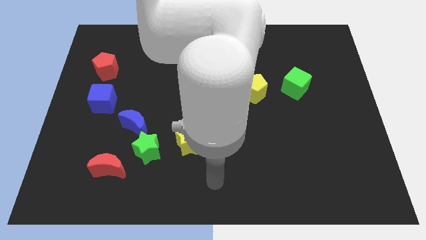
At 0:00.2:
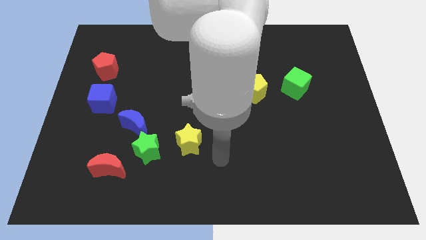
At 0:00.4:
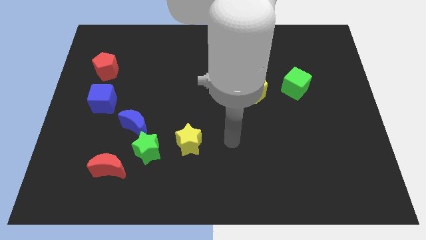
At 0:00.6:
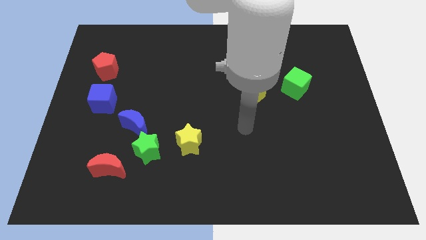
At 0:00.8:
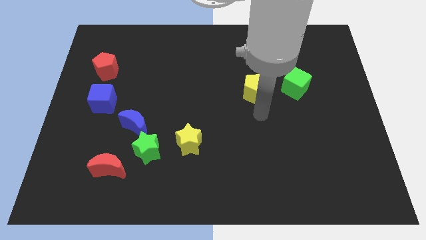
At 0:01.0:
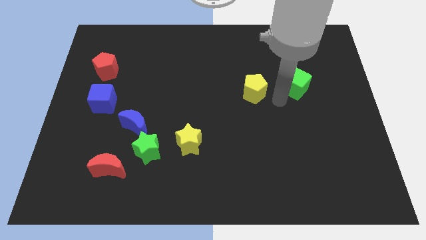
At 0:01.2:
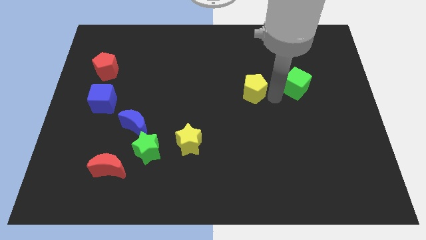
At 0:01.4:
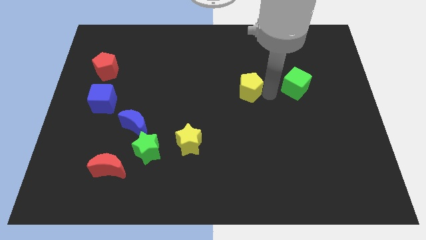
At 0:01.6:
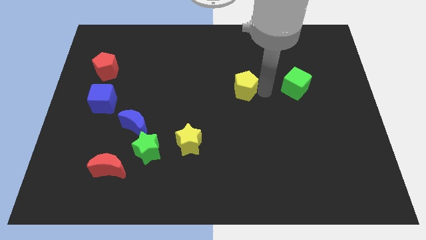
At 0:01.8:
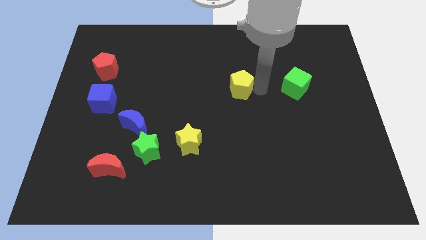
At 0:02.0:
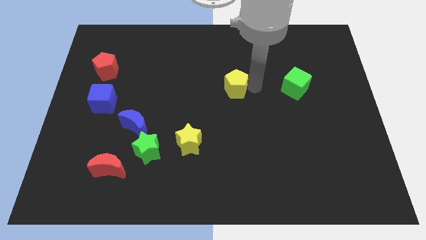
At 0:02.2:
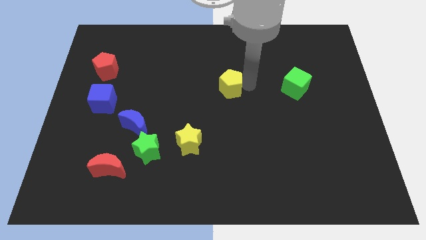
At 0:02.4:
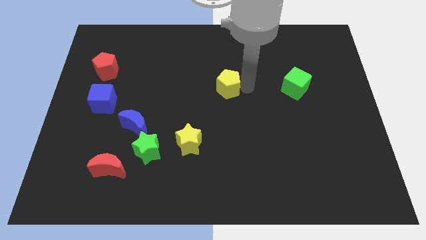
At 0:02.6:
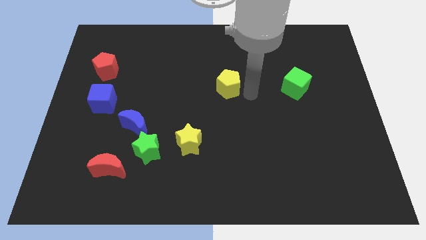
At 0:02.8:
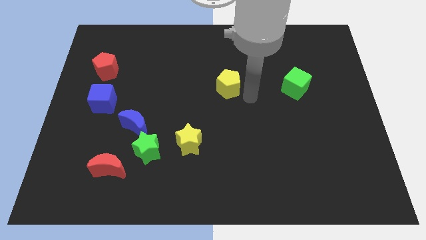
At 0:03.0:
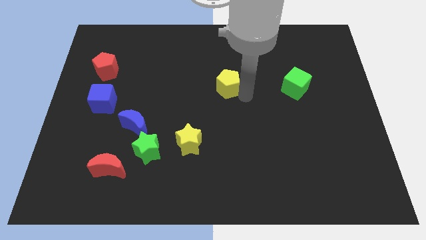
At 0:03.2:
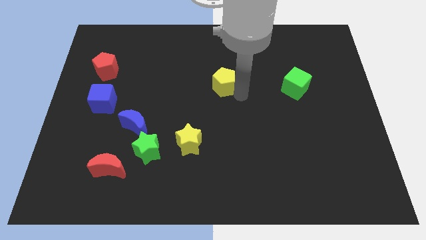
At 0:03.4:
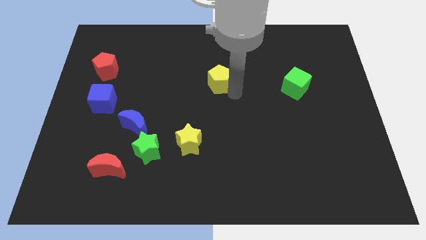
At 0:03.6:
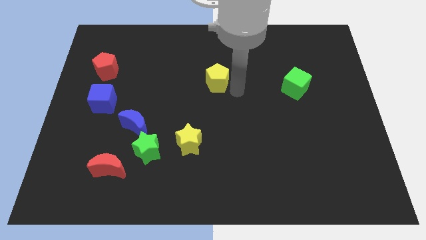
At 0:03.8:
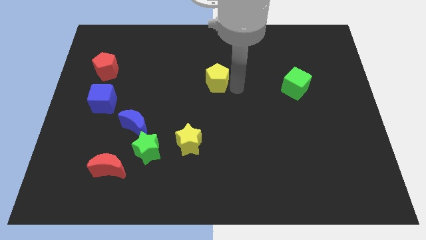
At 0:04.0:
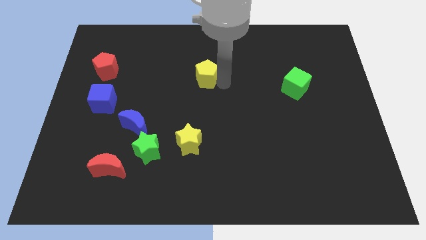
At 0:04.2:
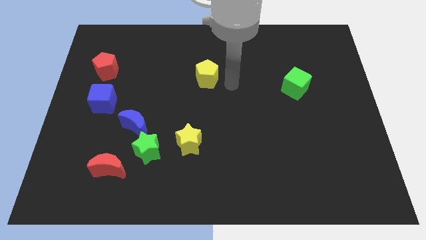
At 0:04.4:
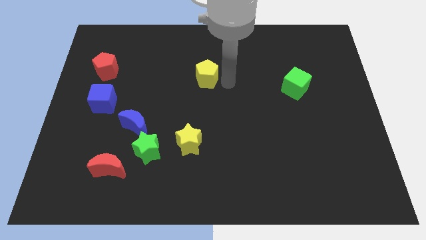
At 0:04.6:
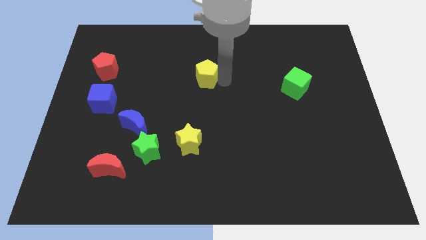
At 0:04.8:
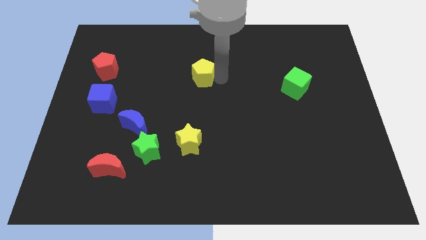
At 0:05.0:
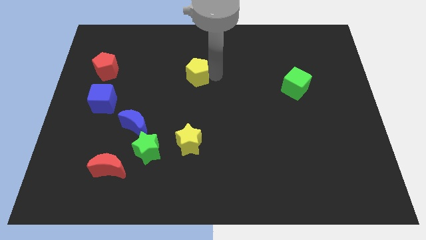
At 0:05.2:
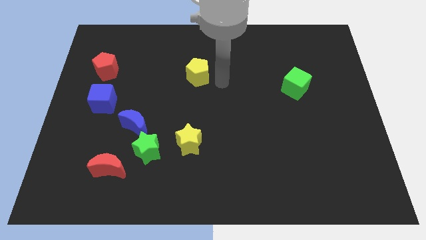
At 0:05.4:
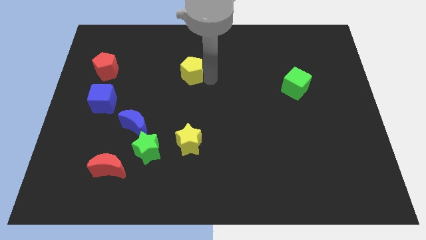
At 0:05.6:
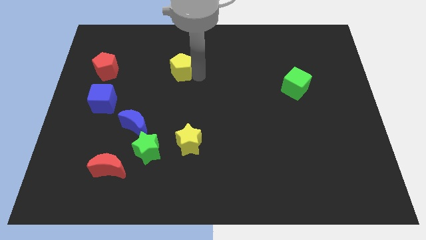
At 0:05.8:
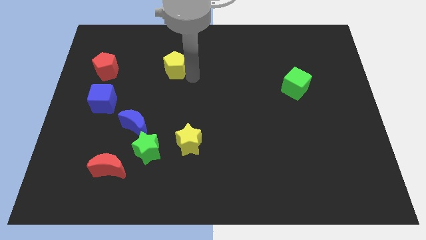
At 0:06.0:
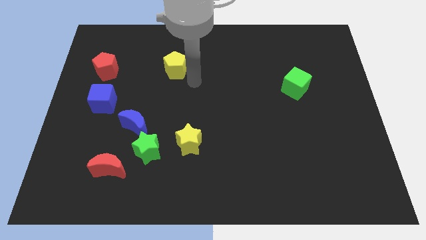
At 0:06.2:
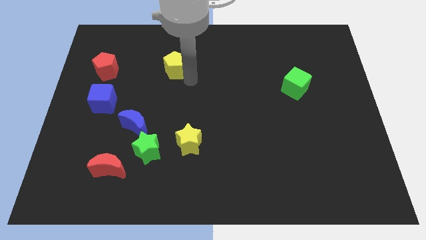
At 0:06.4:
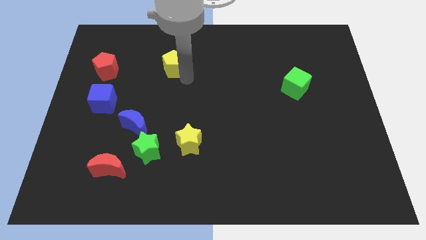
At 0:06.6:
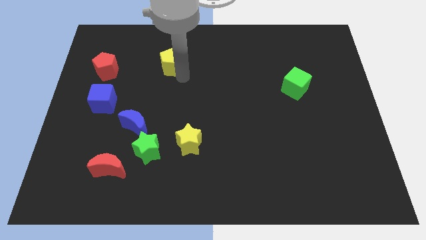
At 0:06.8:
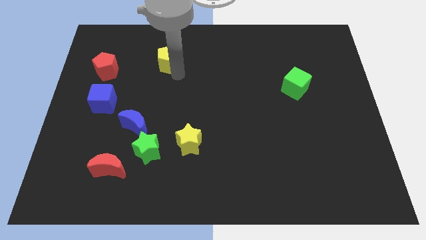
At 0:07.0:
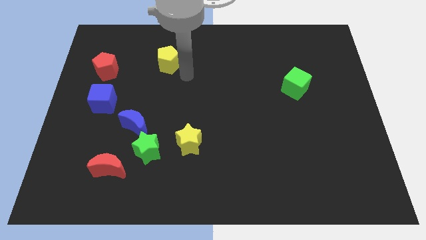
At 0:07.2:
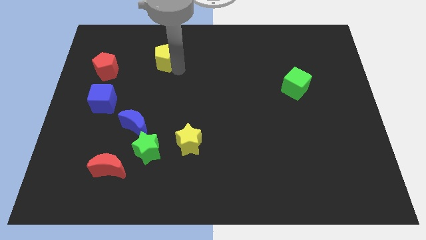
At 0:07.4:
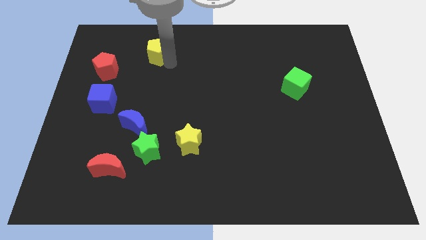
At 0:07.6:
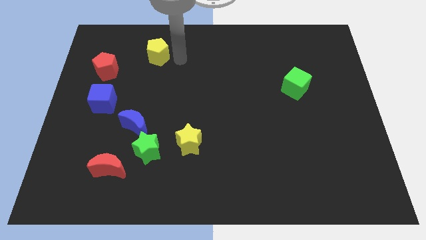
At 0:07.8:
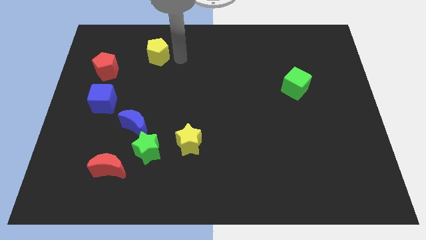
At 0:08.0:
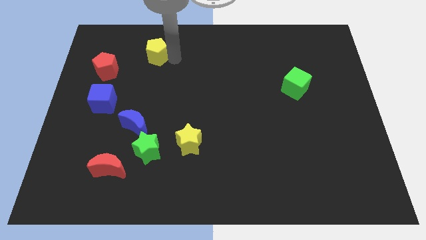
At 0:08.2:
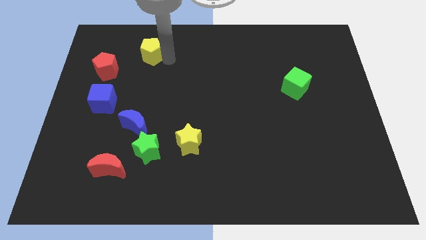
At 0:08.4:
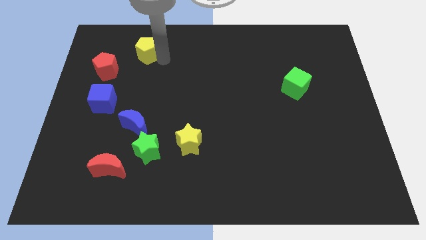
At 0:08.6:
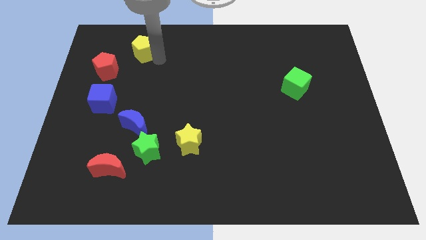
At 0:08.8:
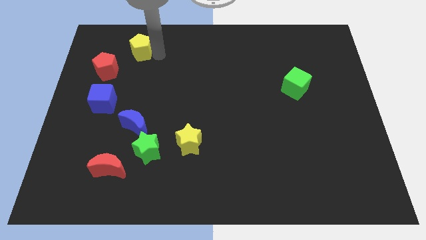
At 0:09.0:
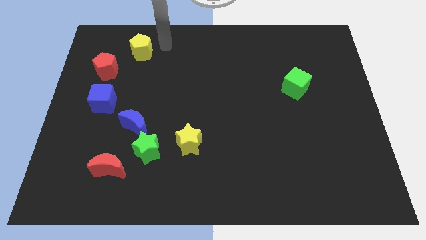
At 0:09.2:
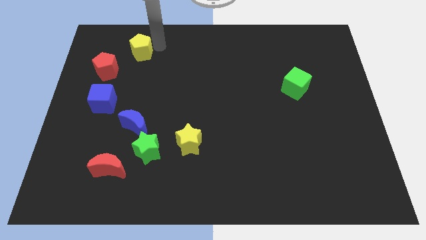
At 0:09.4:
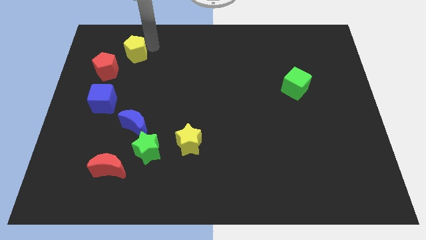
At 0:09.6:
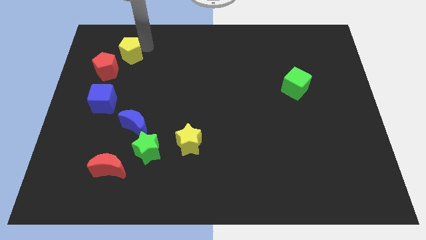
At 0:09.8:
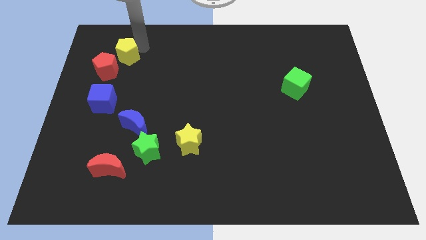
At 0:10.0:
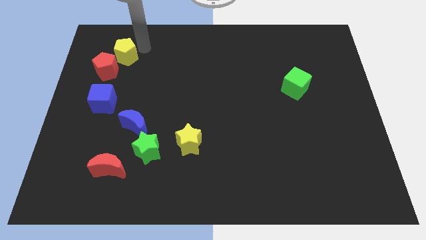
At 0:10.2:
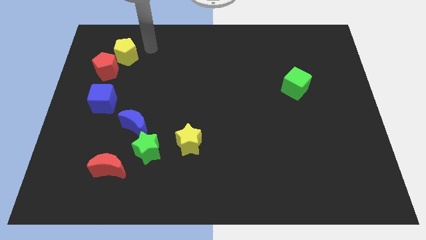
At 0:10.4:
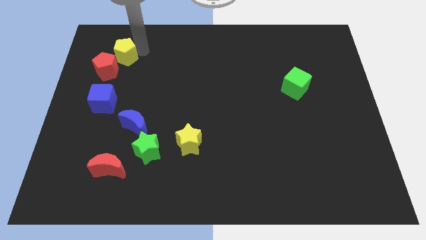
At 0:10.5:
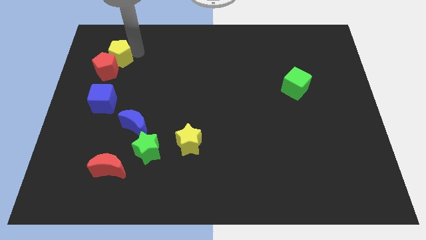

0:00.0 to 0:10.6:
put the yellow pentagon above the blue cube

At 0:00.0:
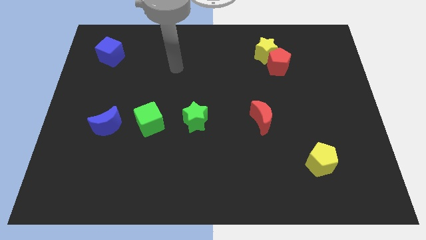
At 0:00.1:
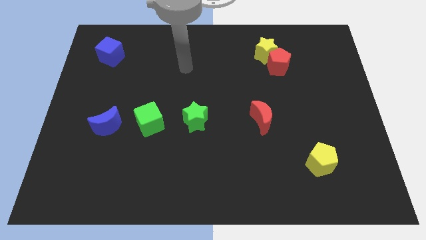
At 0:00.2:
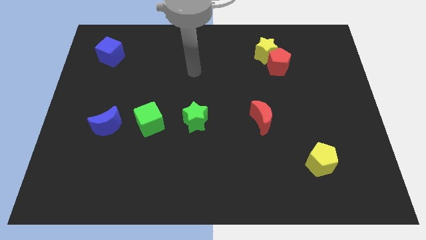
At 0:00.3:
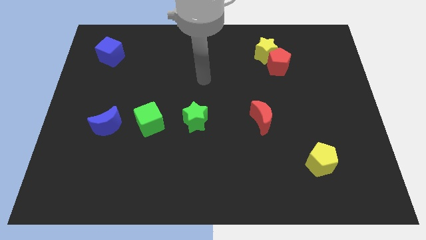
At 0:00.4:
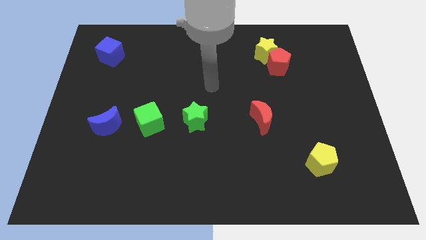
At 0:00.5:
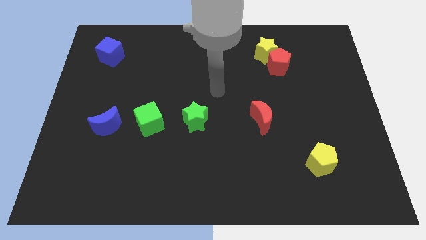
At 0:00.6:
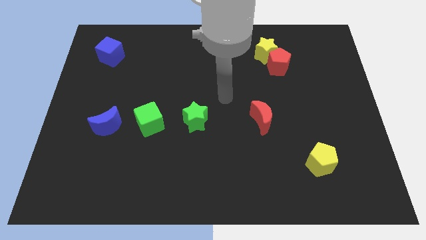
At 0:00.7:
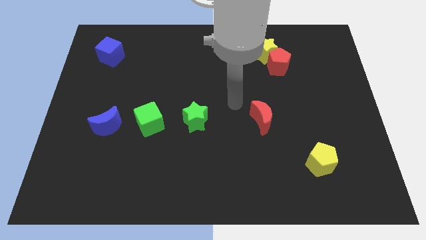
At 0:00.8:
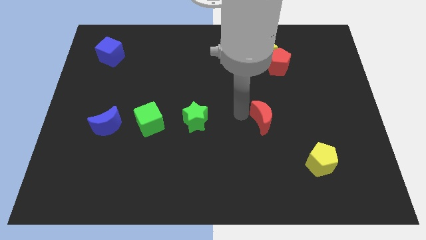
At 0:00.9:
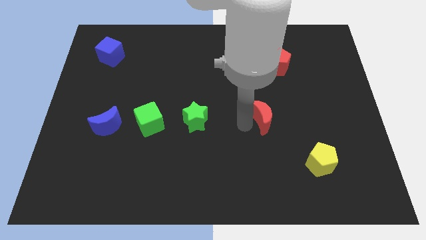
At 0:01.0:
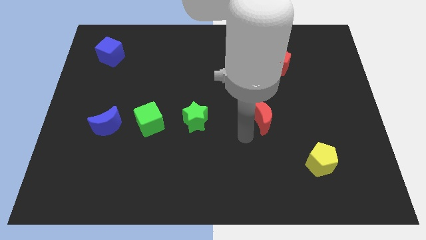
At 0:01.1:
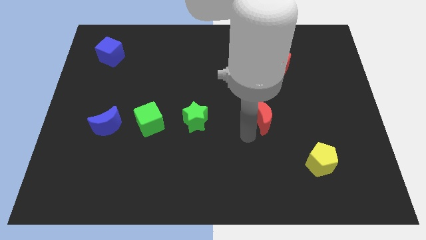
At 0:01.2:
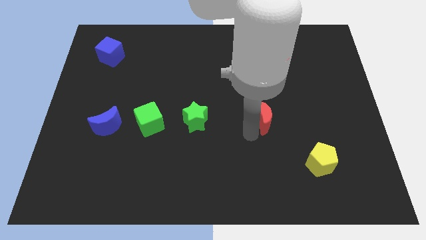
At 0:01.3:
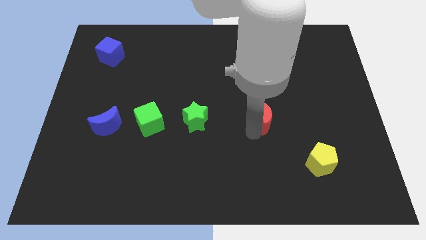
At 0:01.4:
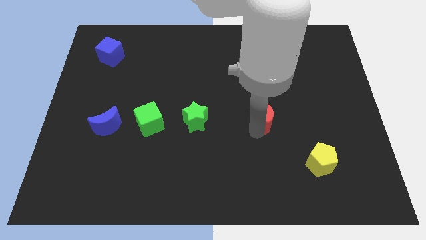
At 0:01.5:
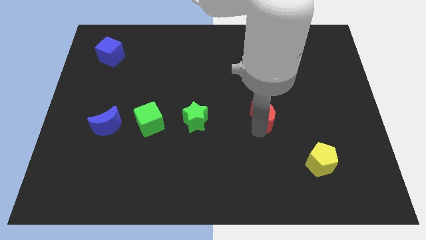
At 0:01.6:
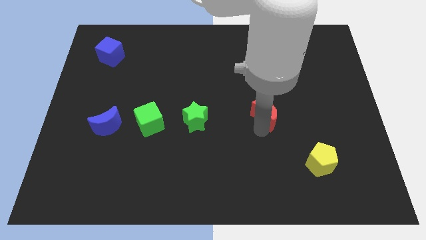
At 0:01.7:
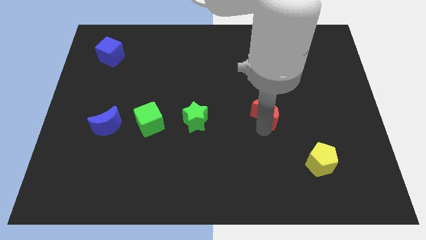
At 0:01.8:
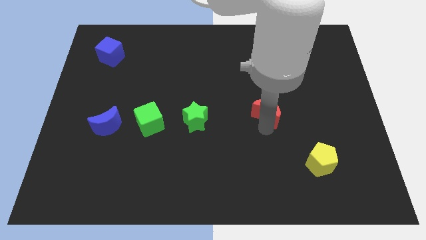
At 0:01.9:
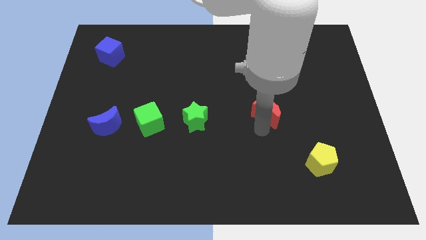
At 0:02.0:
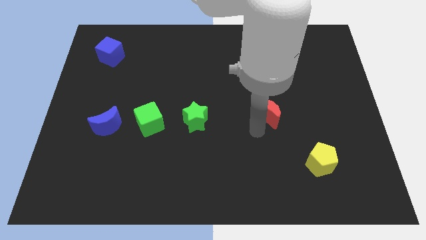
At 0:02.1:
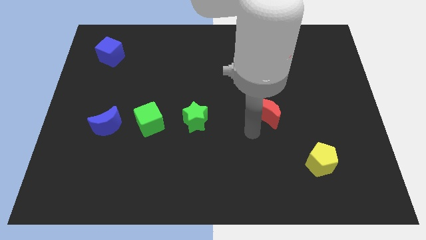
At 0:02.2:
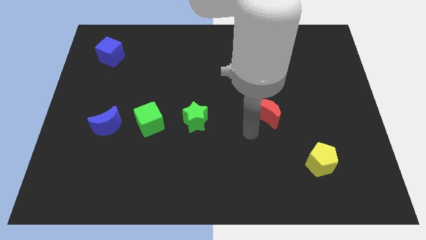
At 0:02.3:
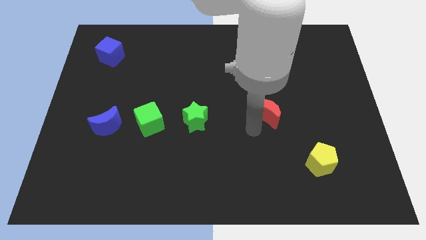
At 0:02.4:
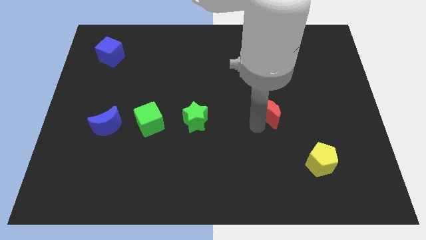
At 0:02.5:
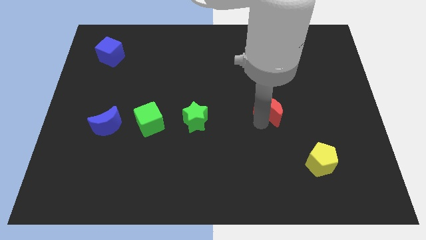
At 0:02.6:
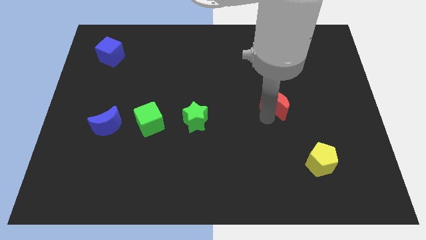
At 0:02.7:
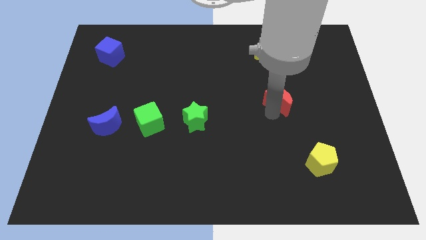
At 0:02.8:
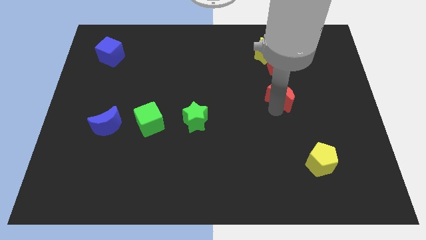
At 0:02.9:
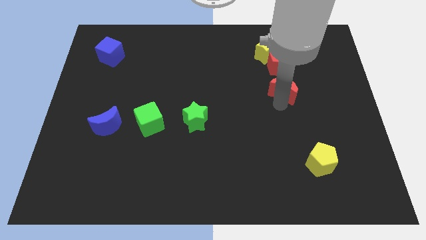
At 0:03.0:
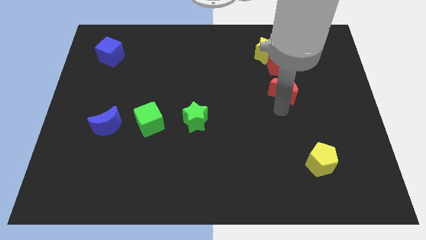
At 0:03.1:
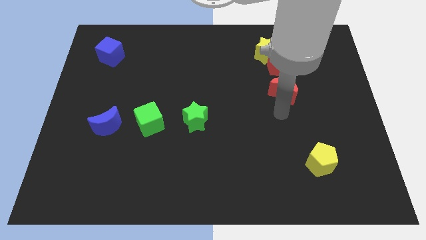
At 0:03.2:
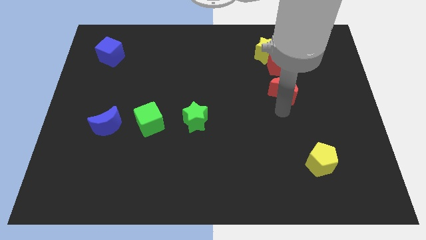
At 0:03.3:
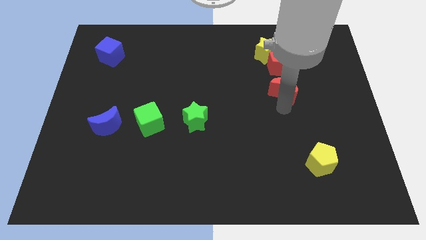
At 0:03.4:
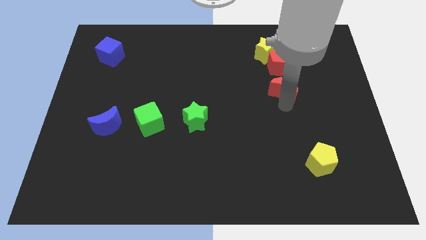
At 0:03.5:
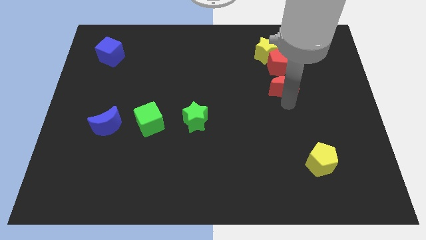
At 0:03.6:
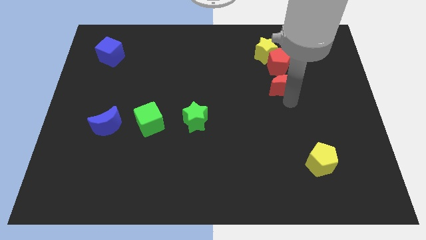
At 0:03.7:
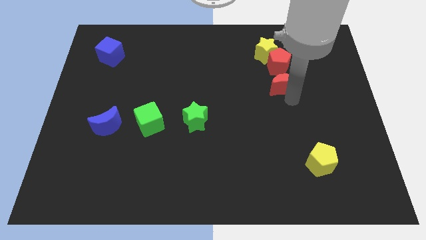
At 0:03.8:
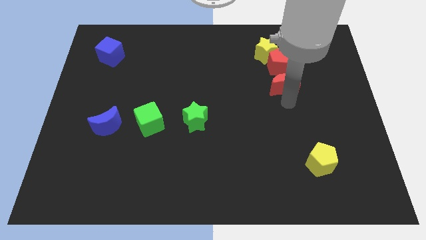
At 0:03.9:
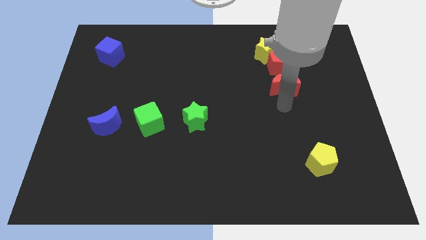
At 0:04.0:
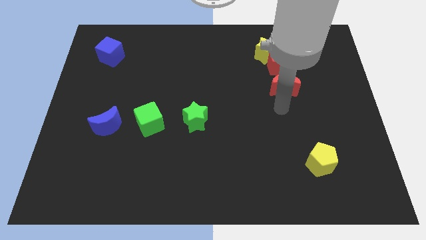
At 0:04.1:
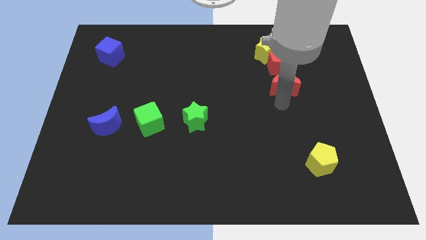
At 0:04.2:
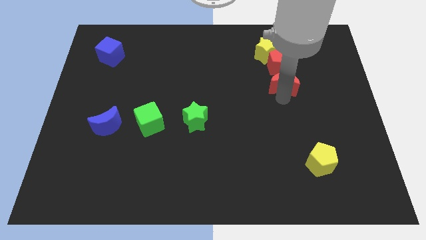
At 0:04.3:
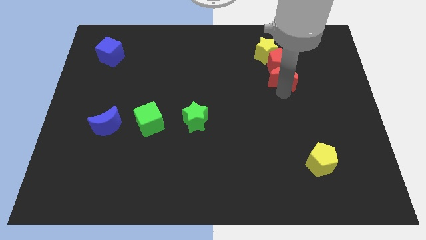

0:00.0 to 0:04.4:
slide the red moon to the bottom right of the yellow star
